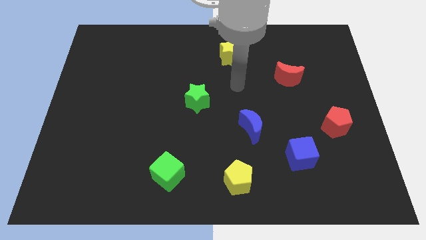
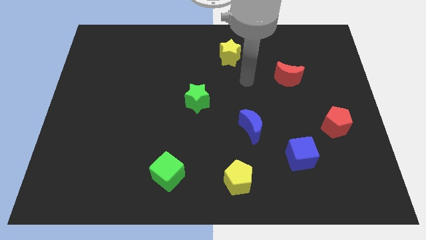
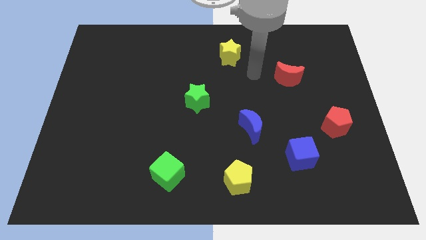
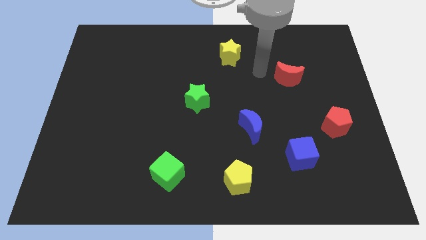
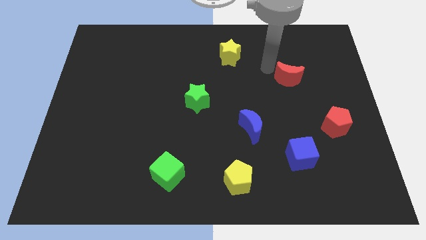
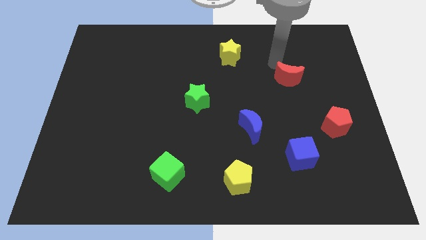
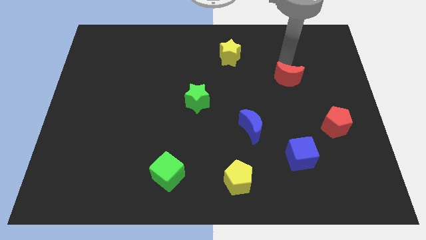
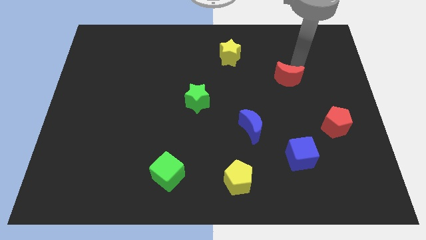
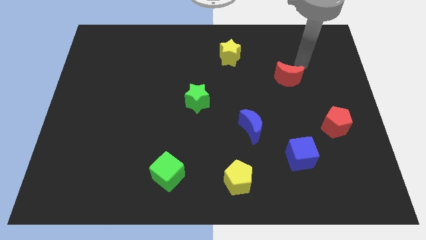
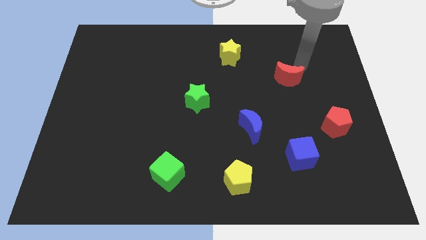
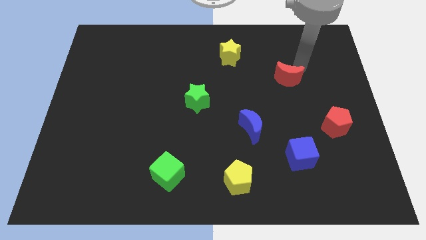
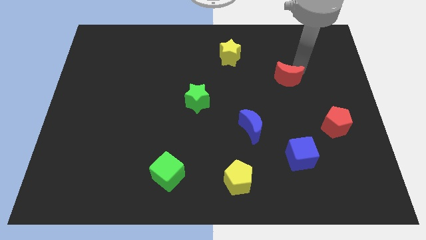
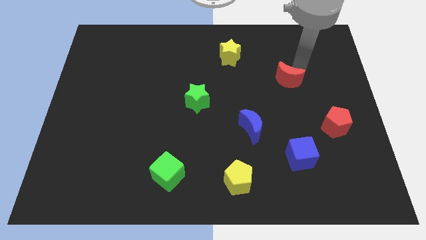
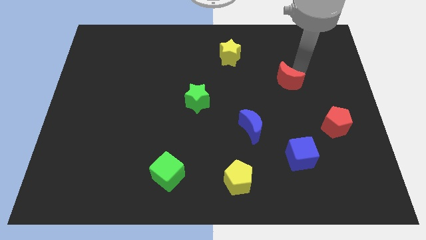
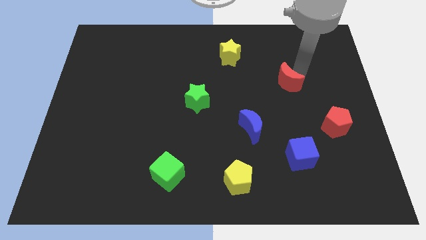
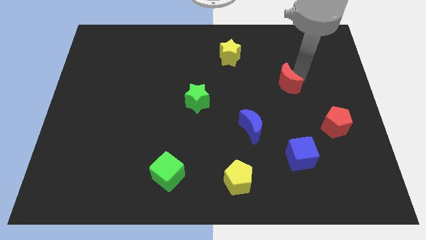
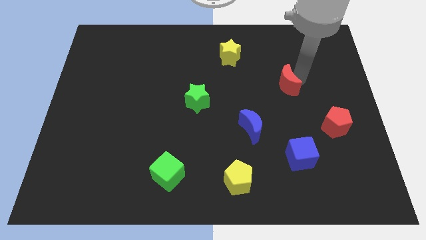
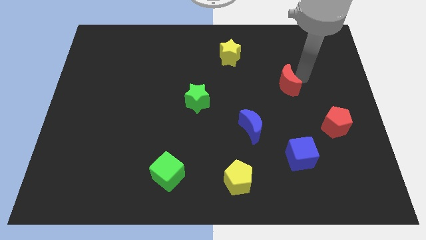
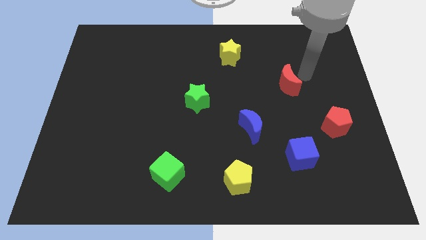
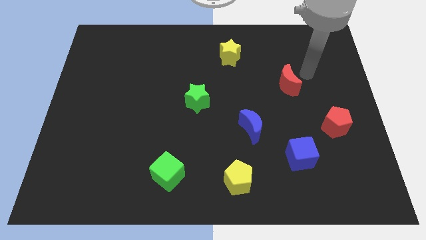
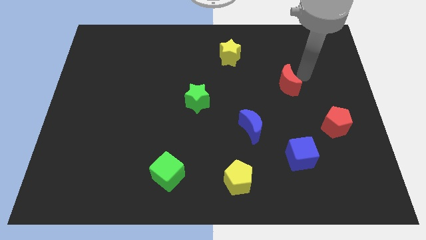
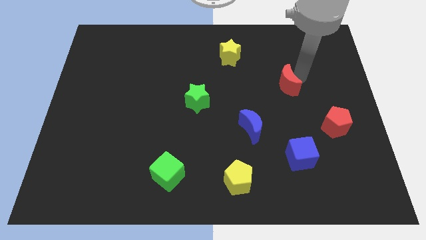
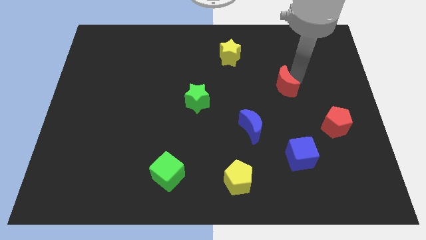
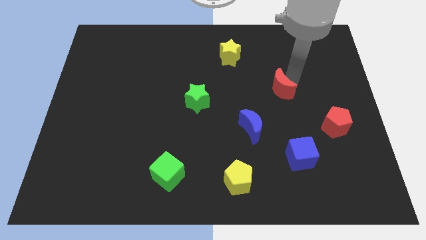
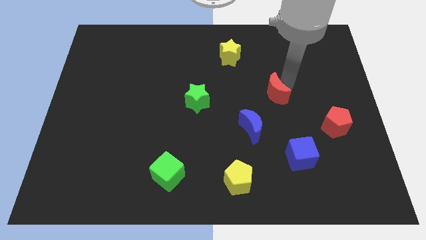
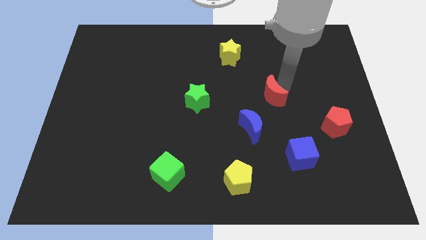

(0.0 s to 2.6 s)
slightly push the red moon down and left diagonally

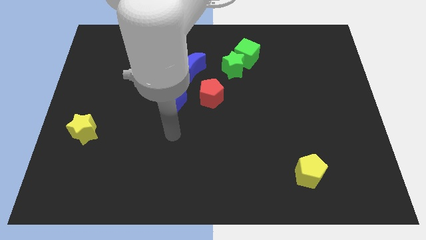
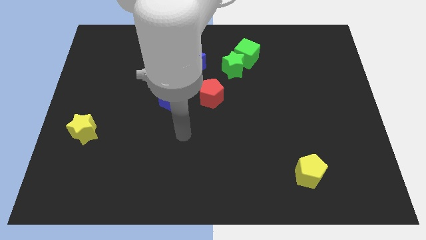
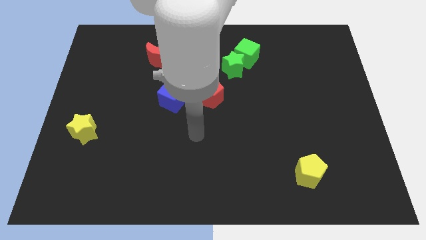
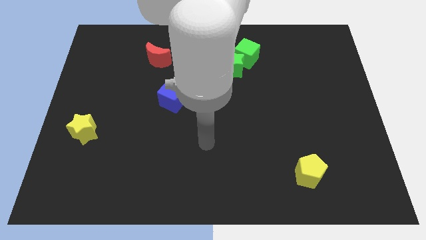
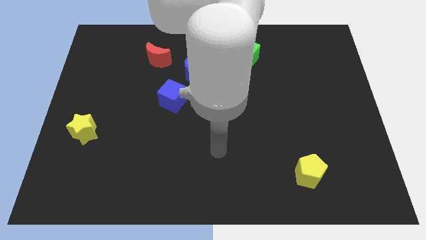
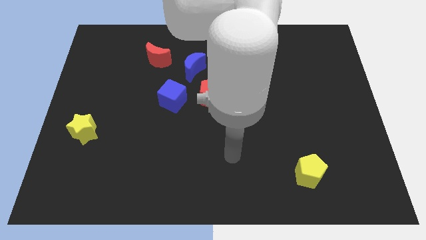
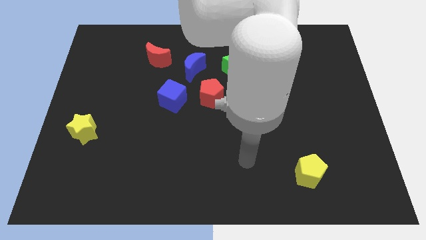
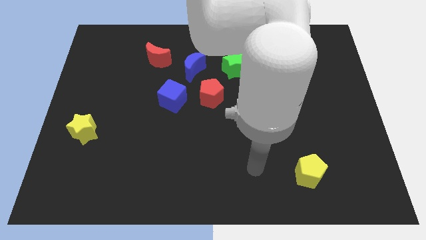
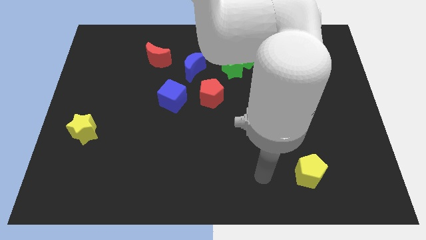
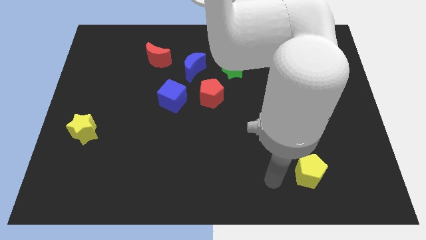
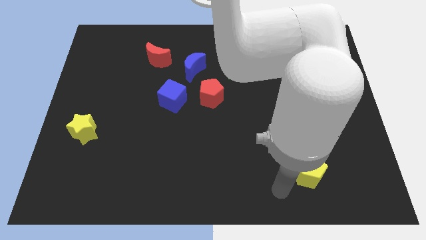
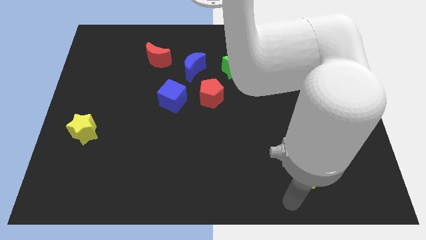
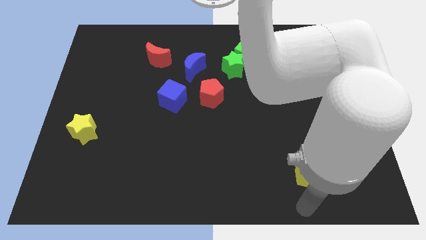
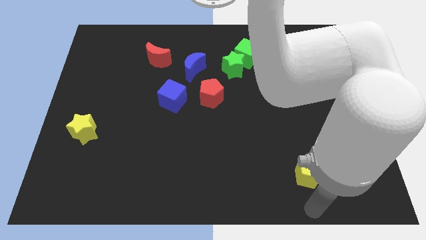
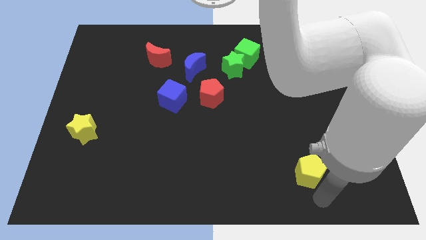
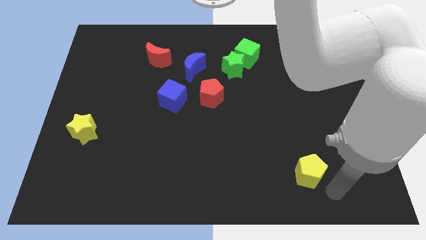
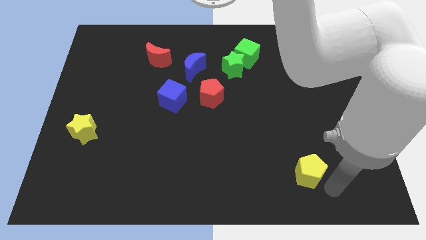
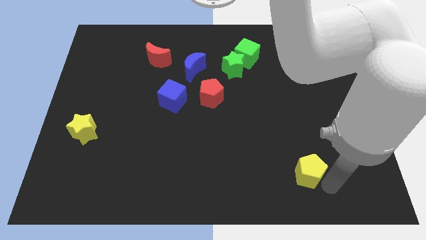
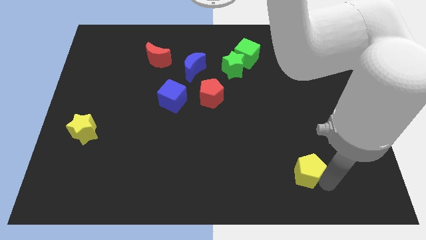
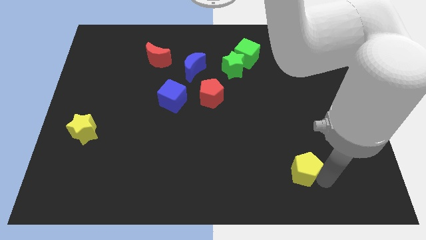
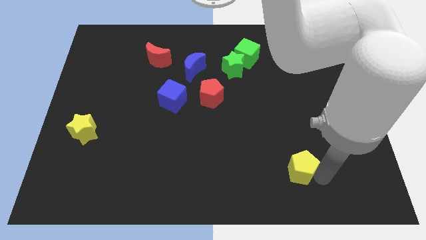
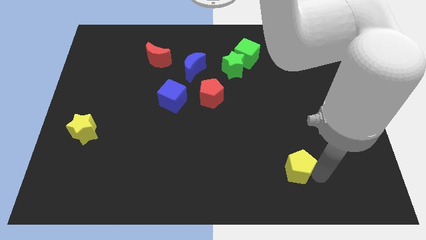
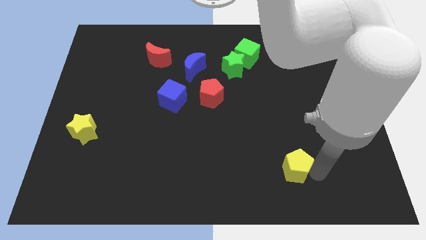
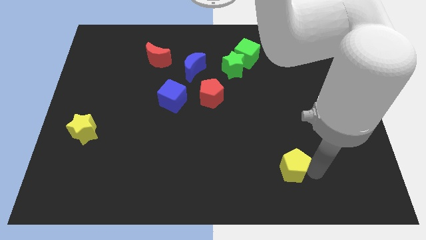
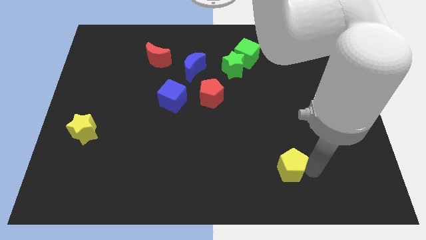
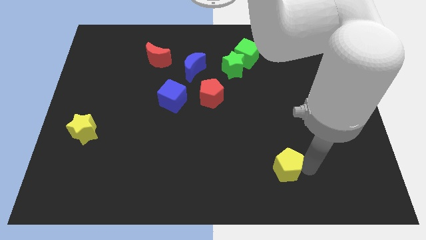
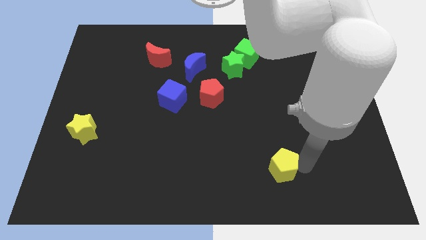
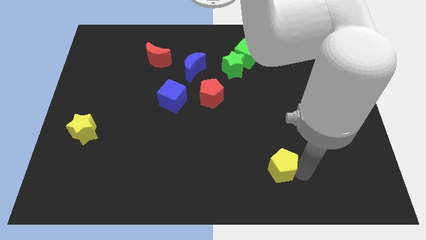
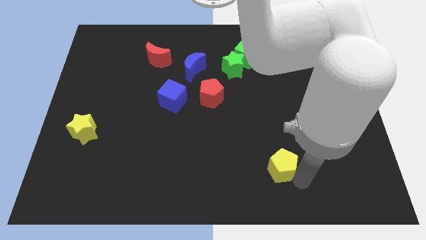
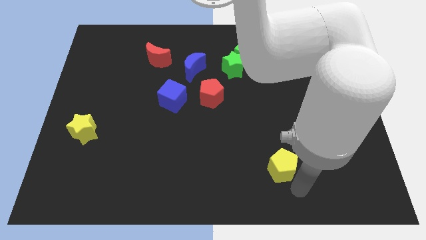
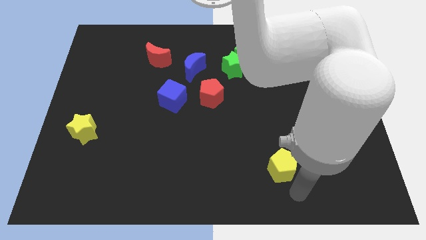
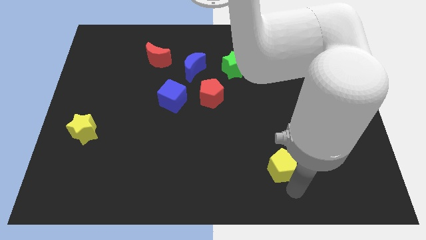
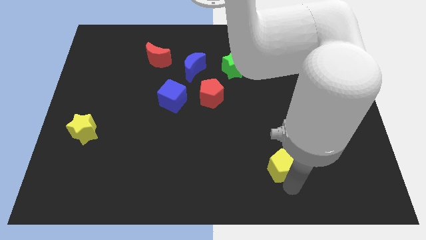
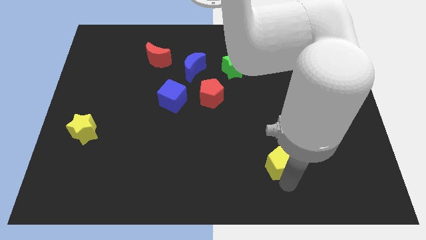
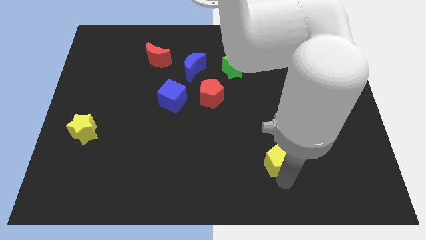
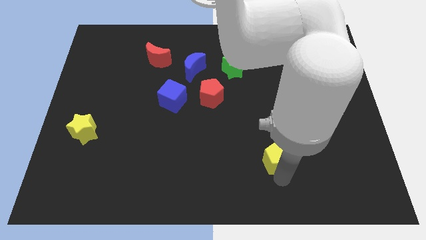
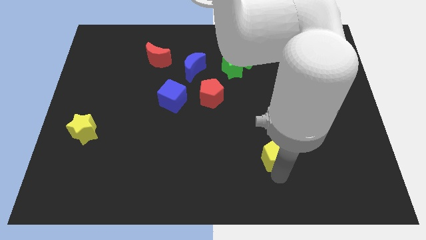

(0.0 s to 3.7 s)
push the yellow pentagon upwards and left diagonally a little

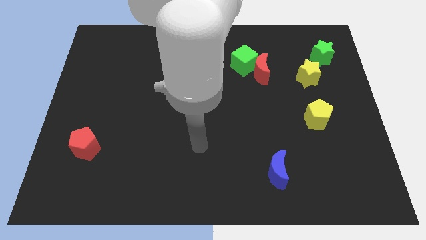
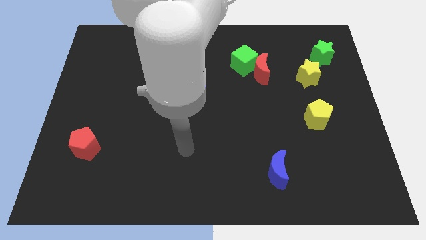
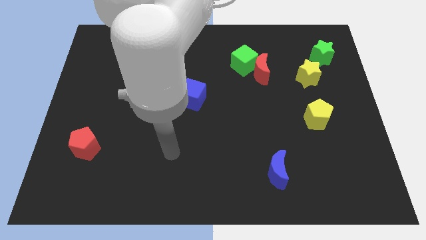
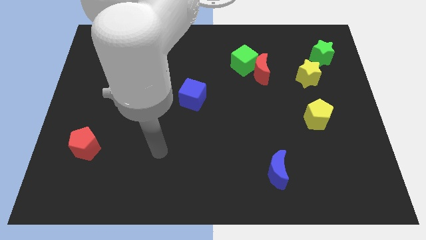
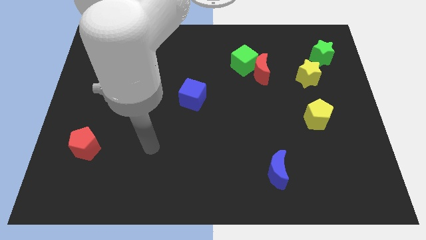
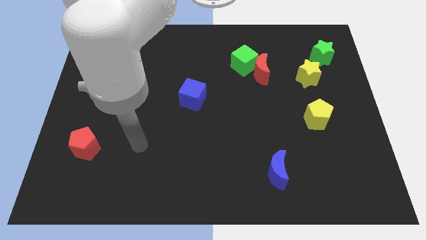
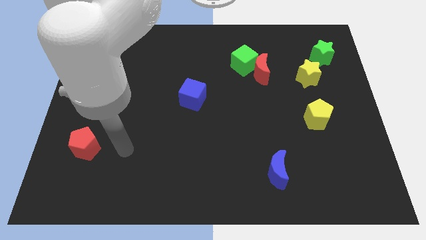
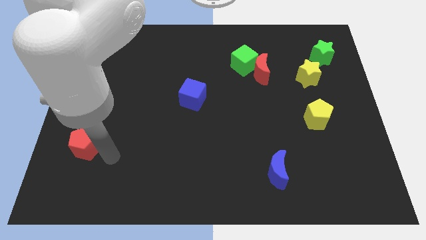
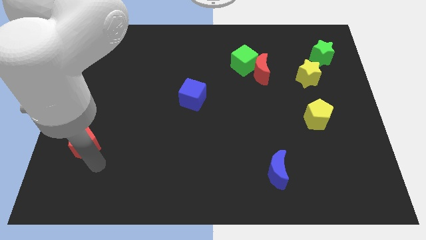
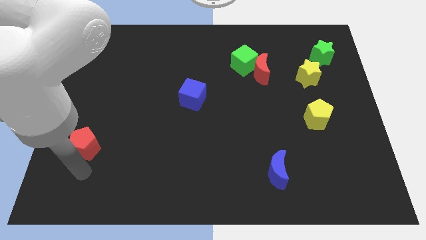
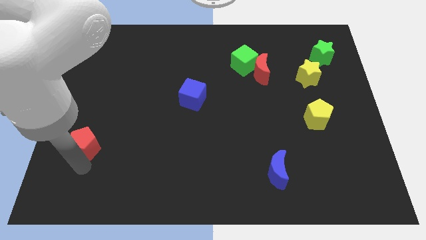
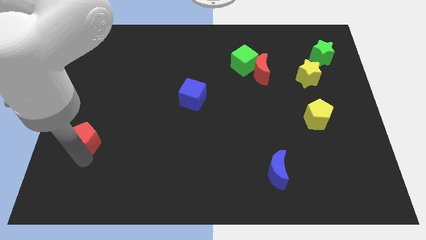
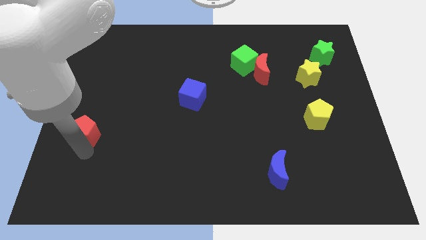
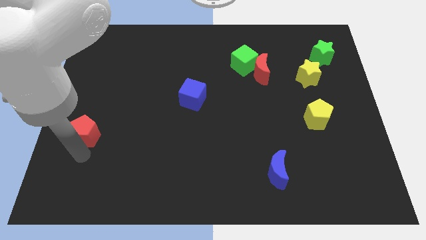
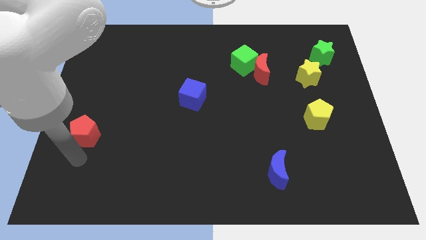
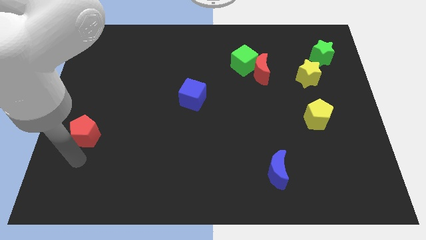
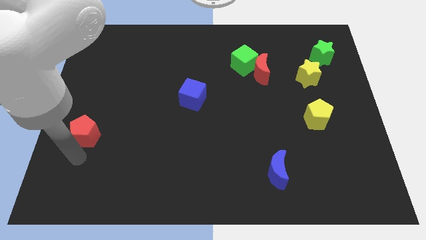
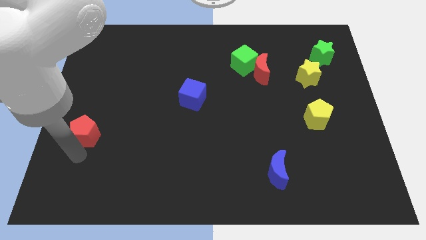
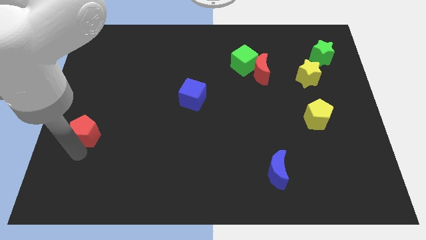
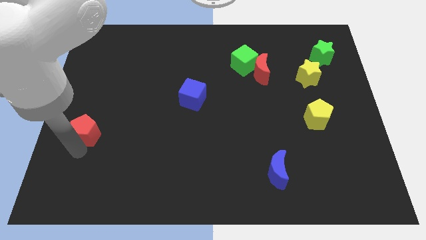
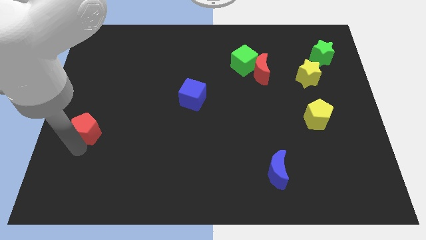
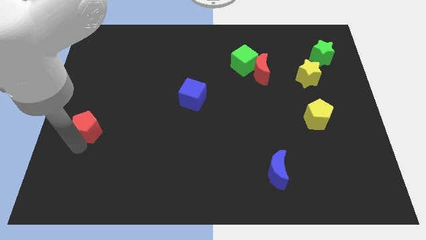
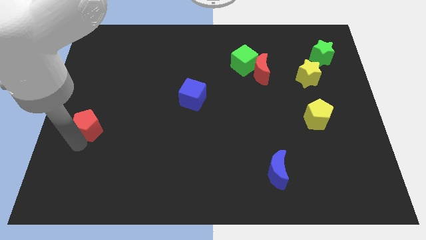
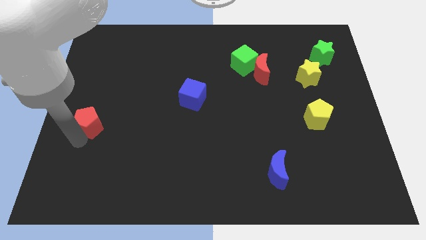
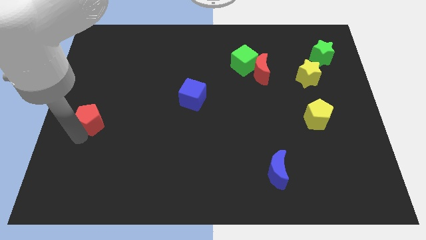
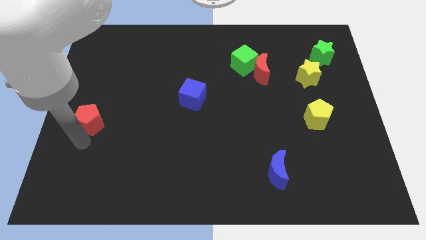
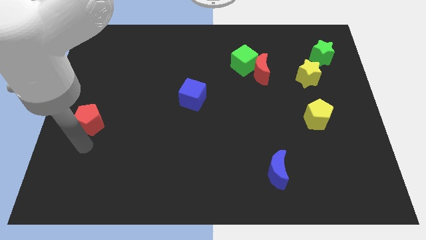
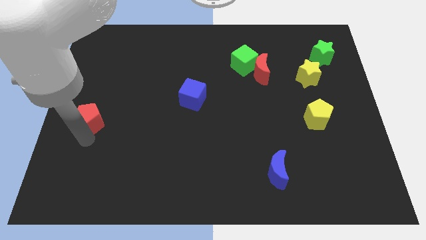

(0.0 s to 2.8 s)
slightly move the red pentagon upwards
